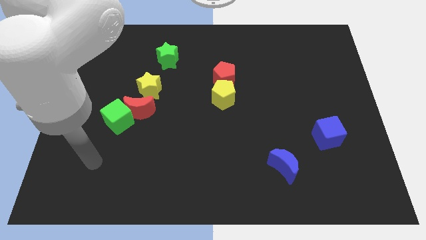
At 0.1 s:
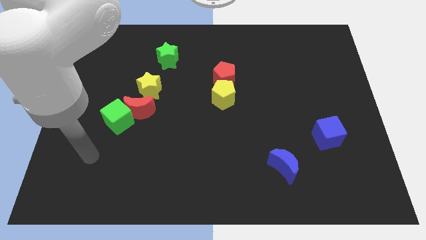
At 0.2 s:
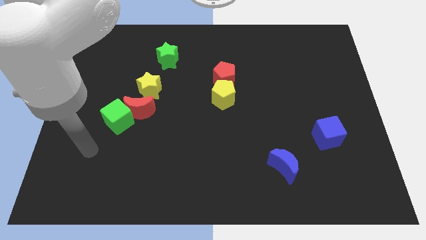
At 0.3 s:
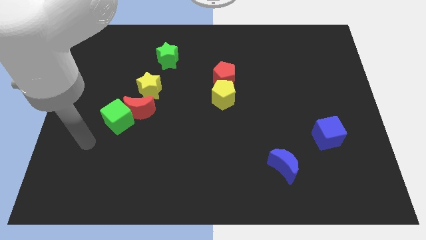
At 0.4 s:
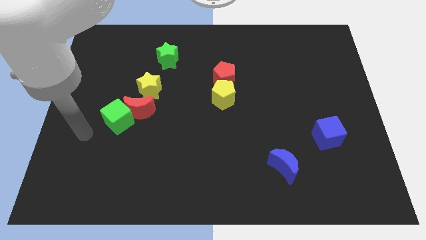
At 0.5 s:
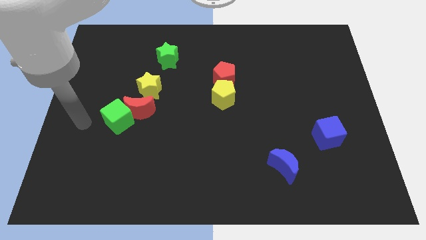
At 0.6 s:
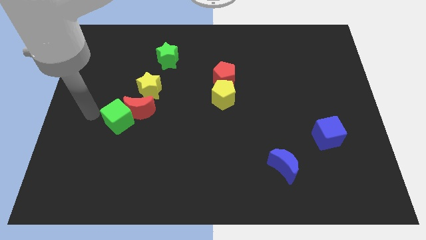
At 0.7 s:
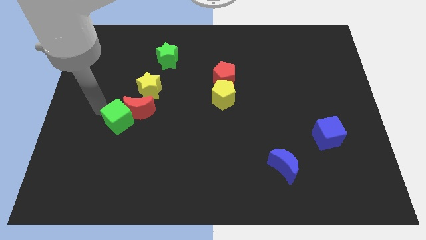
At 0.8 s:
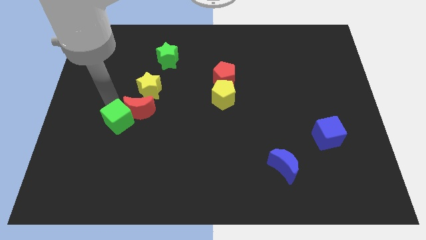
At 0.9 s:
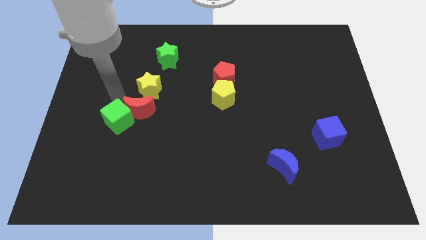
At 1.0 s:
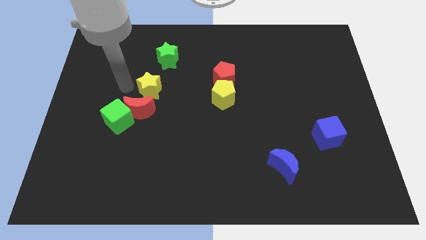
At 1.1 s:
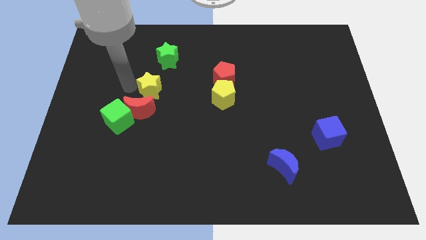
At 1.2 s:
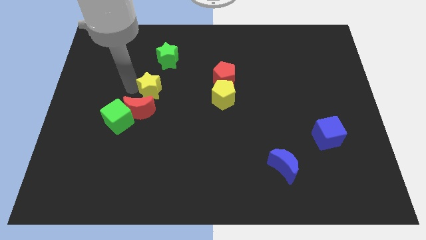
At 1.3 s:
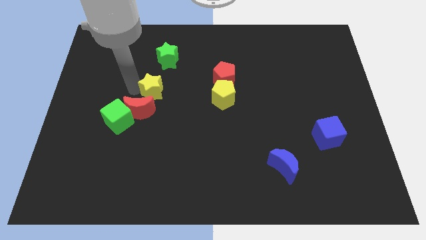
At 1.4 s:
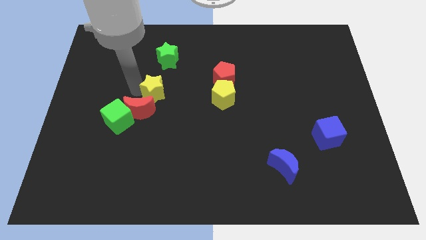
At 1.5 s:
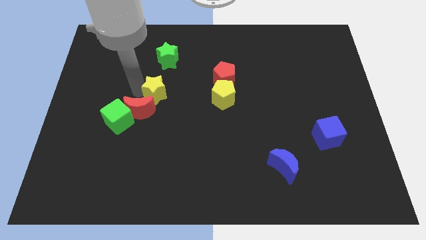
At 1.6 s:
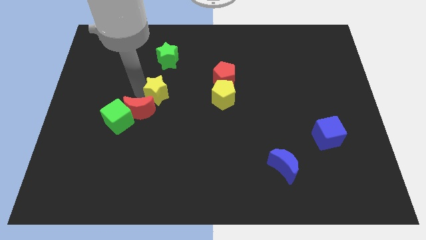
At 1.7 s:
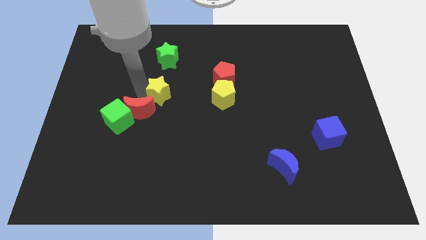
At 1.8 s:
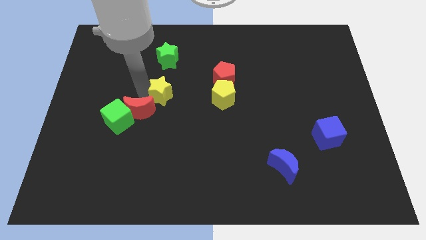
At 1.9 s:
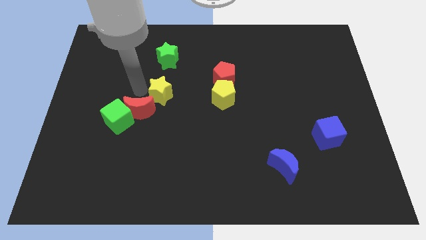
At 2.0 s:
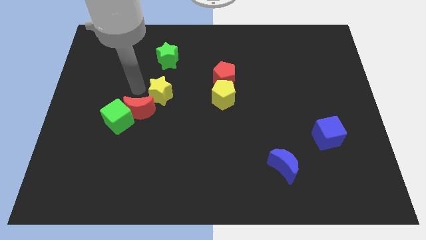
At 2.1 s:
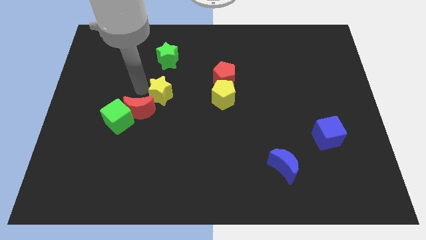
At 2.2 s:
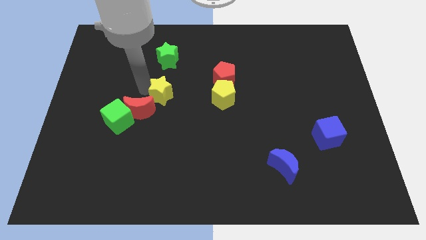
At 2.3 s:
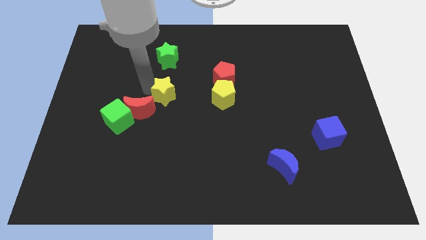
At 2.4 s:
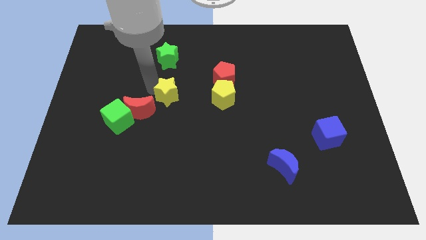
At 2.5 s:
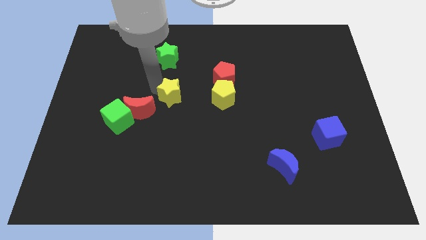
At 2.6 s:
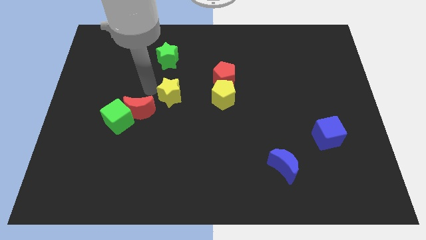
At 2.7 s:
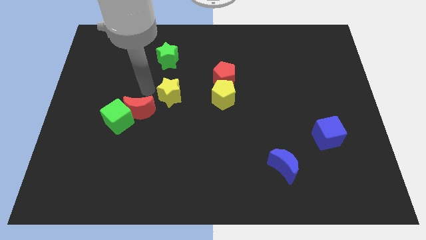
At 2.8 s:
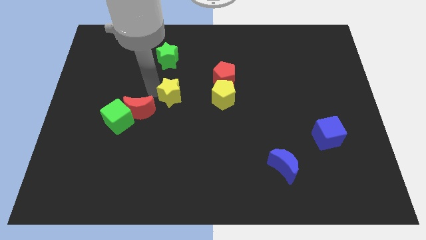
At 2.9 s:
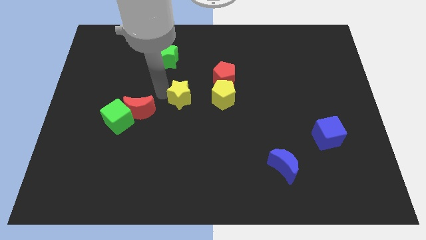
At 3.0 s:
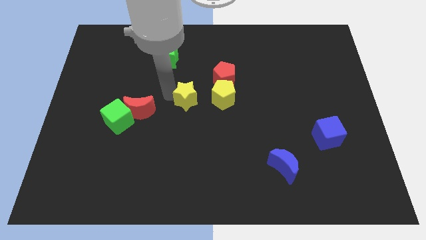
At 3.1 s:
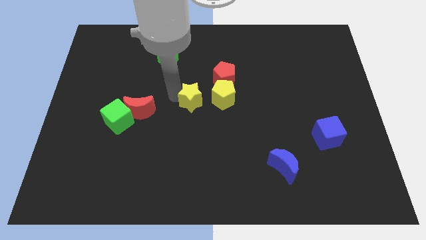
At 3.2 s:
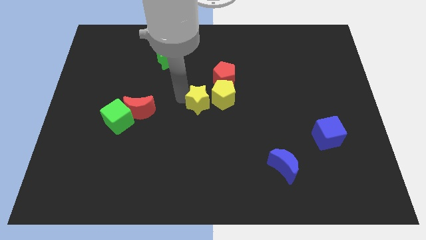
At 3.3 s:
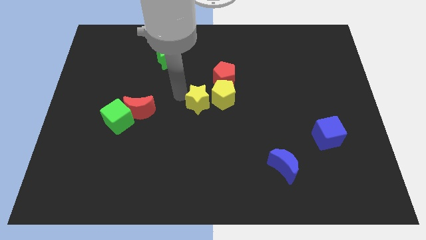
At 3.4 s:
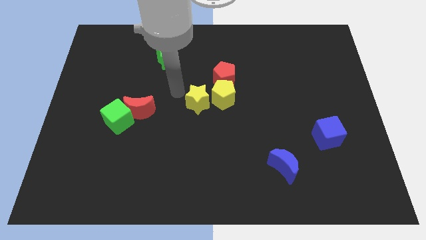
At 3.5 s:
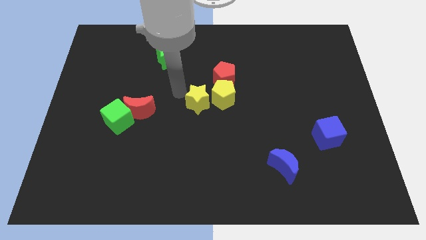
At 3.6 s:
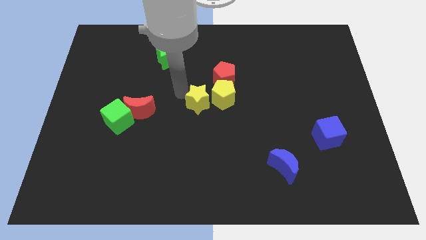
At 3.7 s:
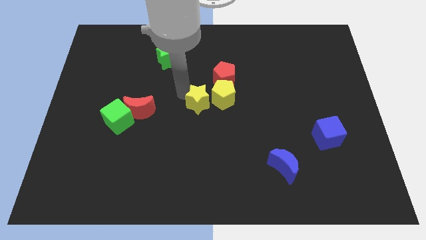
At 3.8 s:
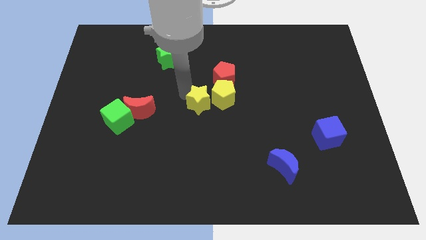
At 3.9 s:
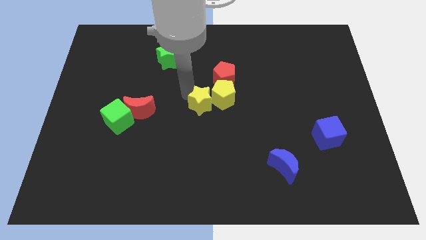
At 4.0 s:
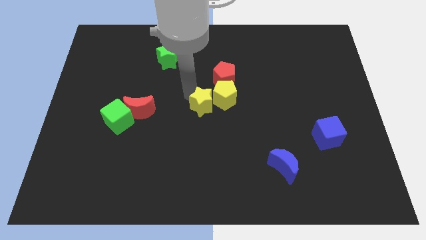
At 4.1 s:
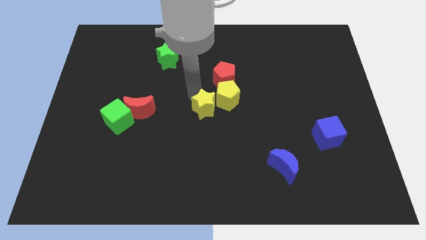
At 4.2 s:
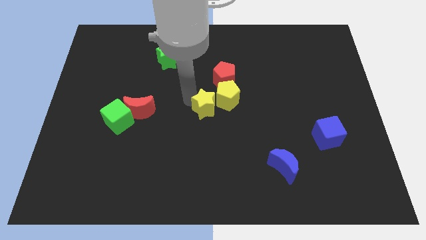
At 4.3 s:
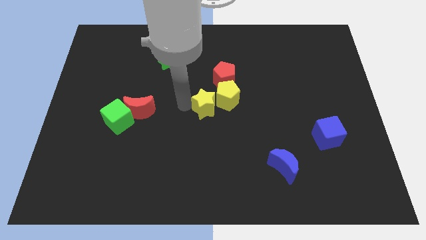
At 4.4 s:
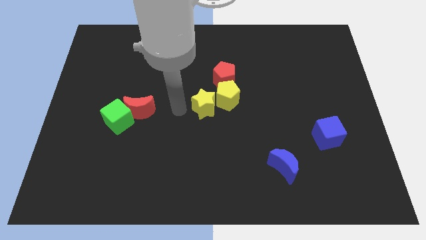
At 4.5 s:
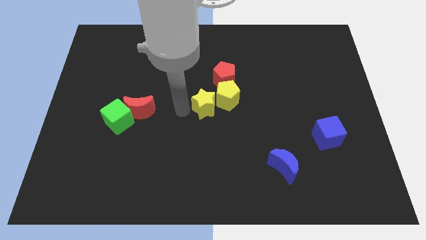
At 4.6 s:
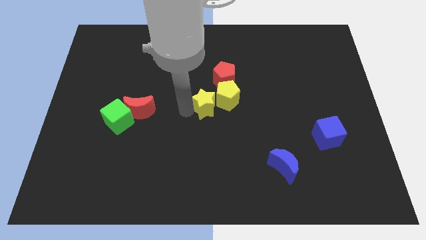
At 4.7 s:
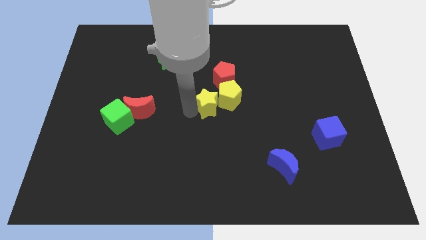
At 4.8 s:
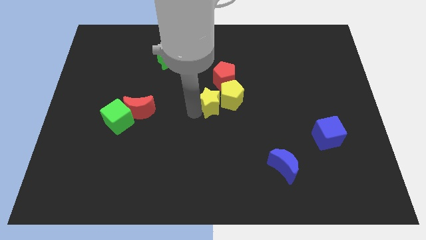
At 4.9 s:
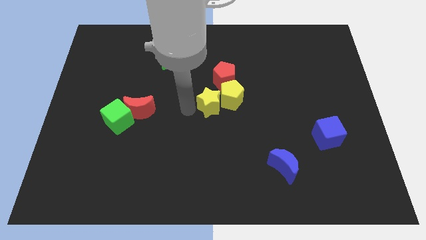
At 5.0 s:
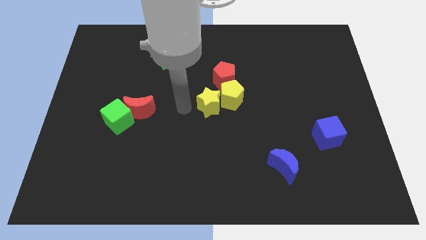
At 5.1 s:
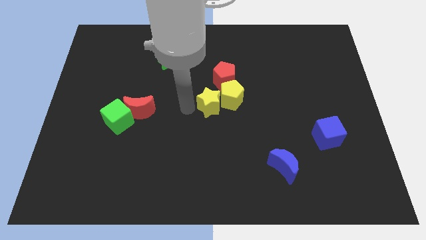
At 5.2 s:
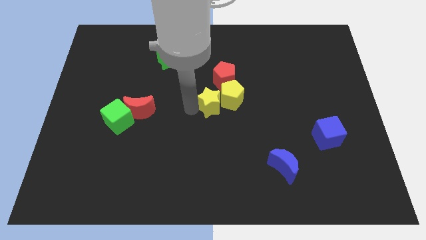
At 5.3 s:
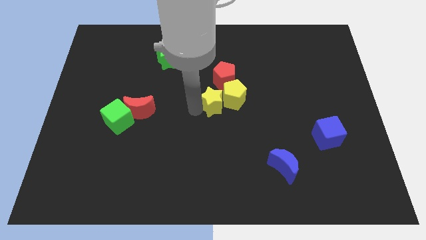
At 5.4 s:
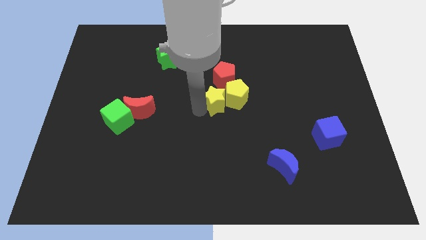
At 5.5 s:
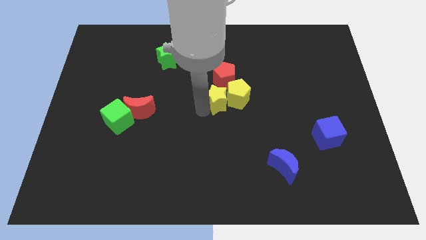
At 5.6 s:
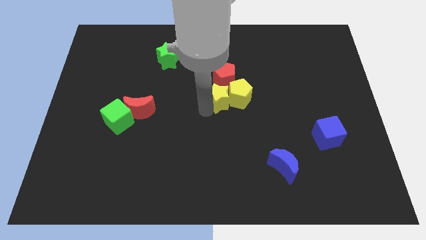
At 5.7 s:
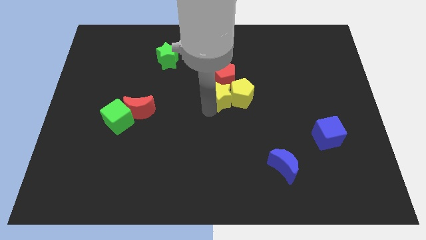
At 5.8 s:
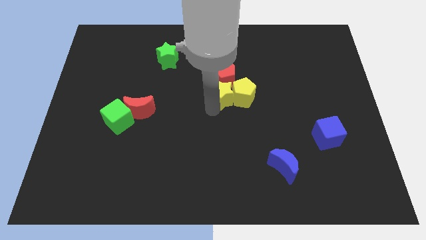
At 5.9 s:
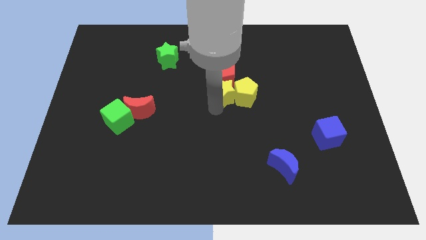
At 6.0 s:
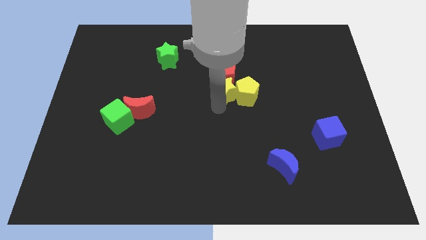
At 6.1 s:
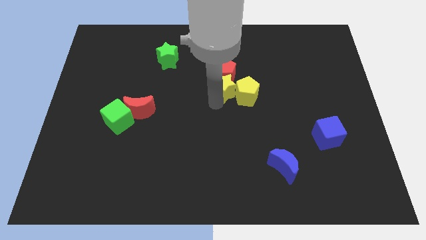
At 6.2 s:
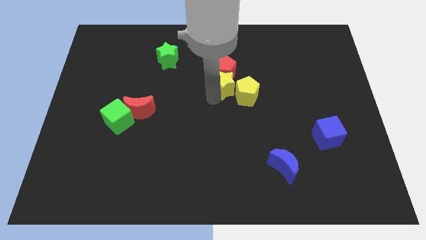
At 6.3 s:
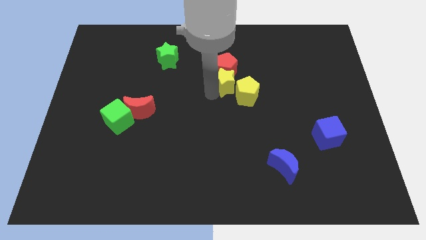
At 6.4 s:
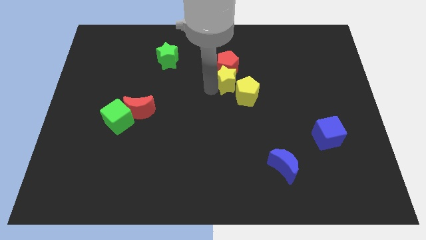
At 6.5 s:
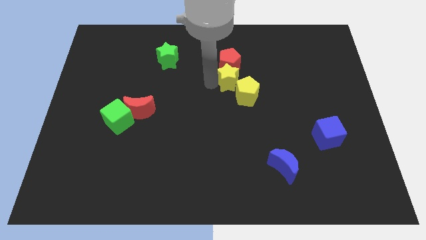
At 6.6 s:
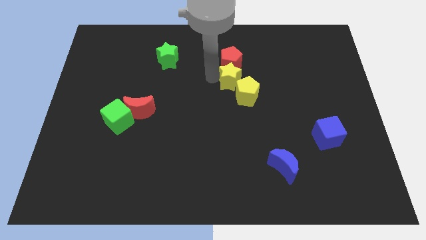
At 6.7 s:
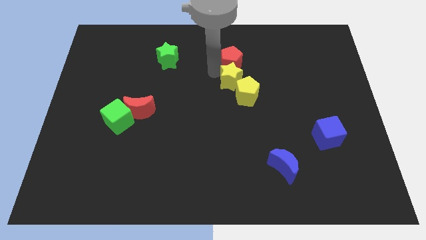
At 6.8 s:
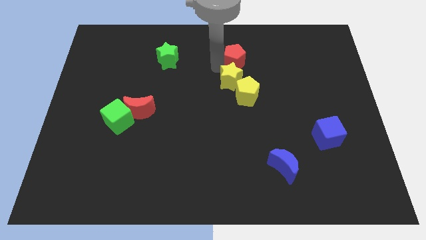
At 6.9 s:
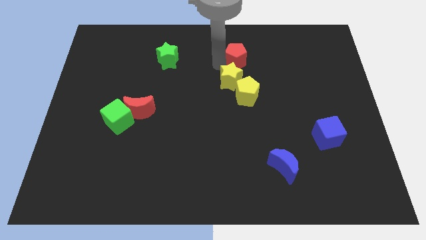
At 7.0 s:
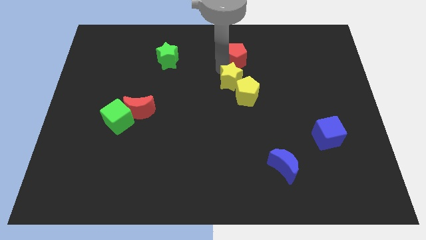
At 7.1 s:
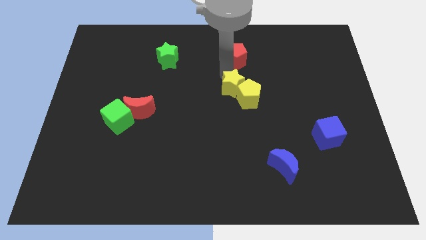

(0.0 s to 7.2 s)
move the yellow star right

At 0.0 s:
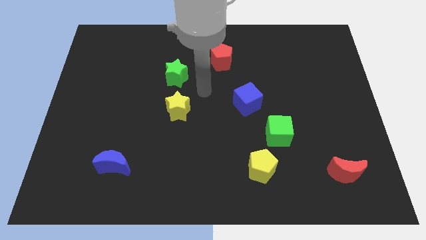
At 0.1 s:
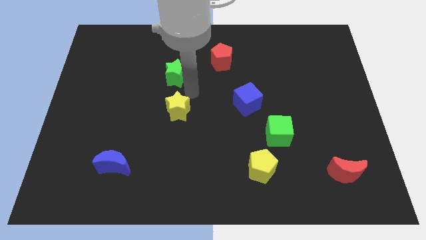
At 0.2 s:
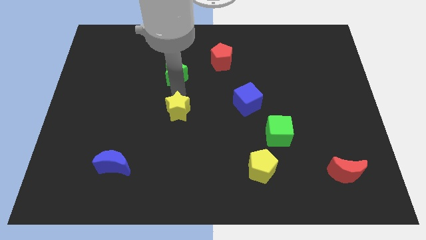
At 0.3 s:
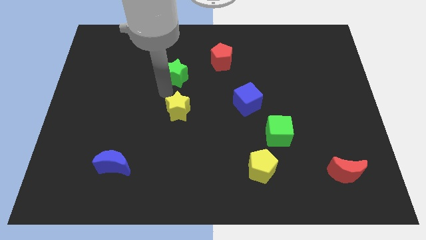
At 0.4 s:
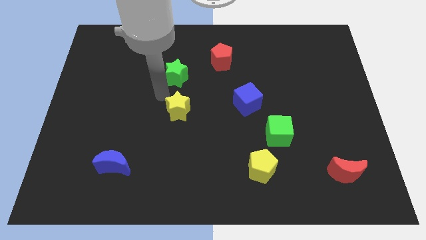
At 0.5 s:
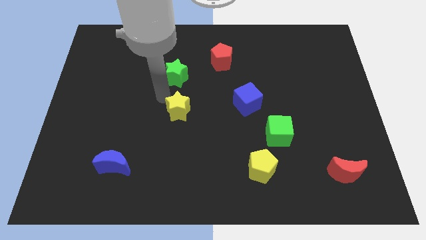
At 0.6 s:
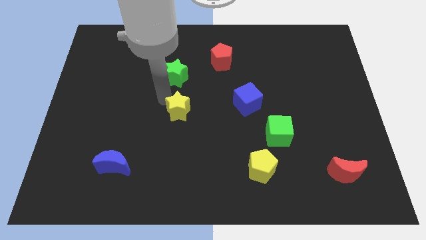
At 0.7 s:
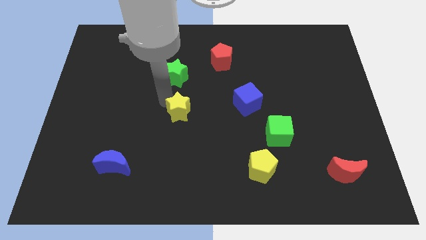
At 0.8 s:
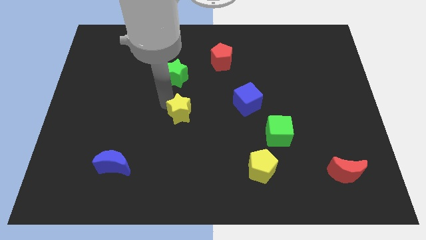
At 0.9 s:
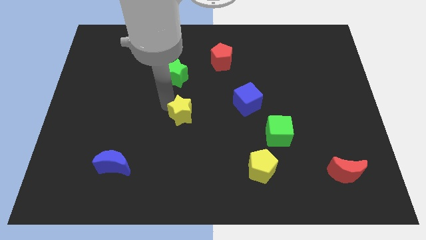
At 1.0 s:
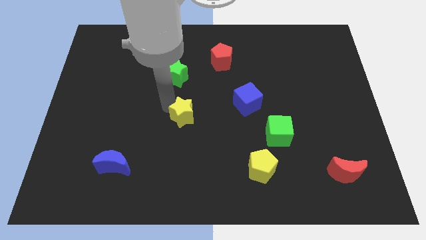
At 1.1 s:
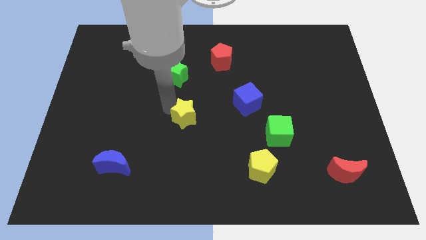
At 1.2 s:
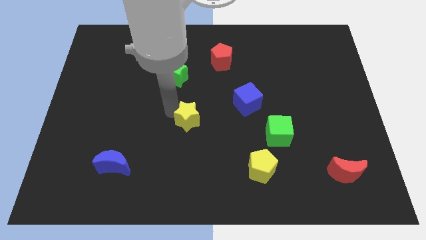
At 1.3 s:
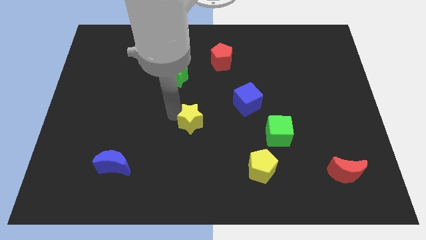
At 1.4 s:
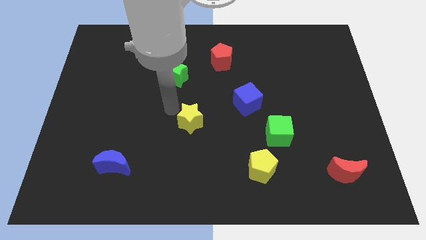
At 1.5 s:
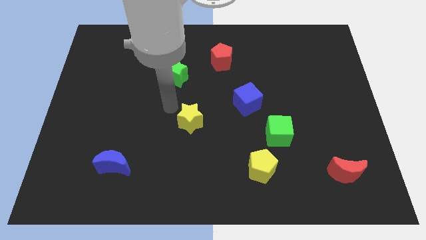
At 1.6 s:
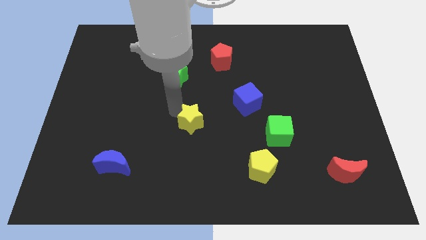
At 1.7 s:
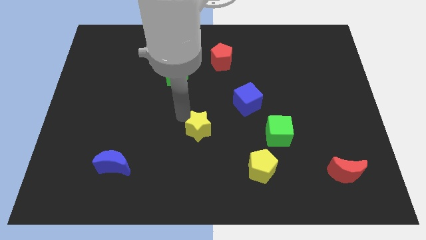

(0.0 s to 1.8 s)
slightly push the yellow star diagonally down and right
